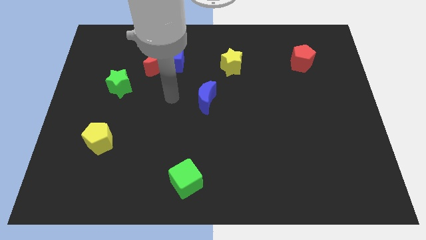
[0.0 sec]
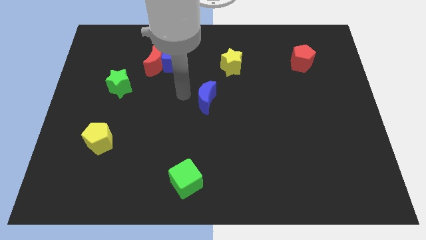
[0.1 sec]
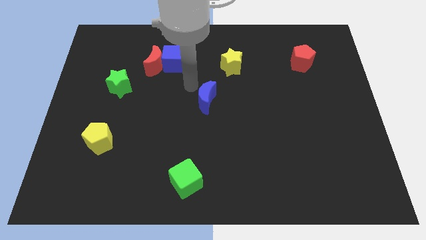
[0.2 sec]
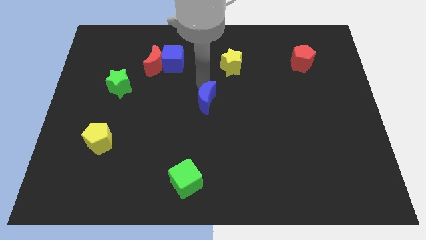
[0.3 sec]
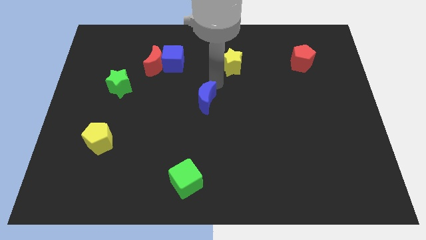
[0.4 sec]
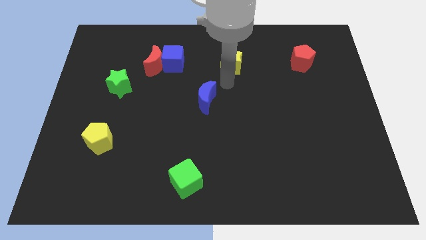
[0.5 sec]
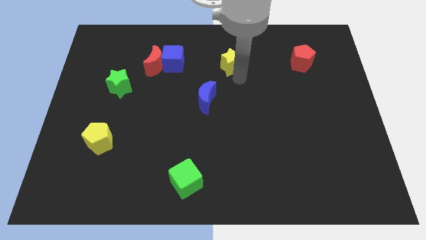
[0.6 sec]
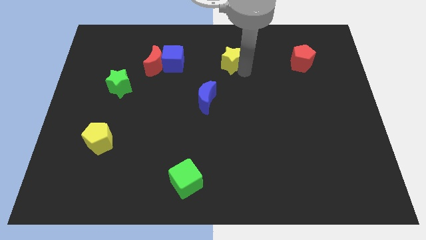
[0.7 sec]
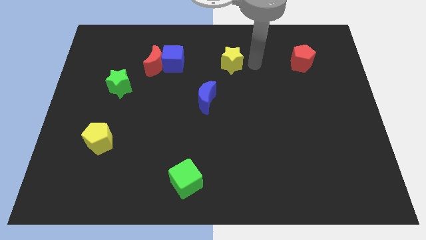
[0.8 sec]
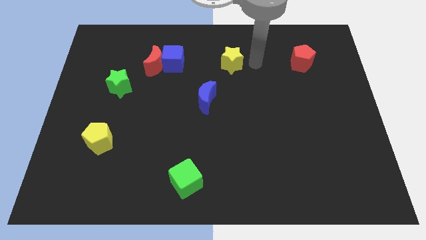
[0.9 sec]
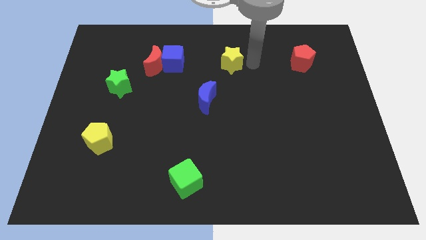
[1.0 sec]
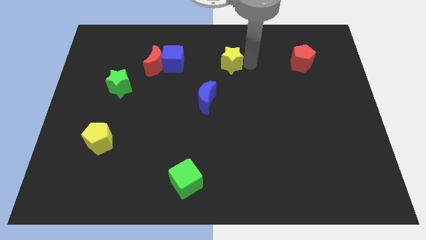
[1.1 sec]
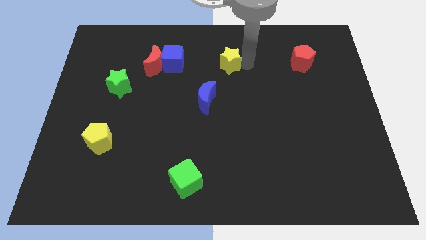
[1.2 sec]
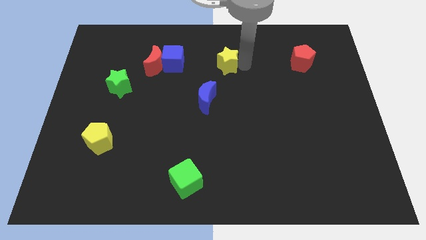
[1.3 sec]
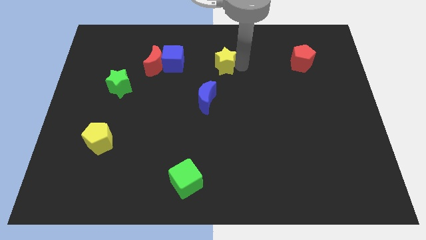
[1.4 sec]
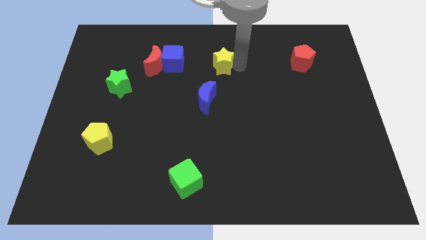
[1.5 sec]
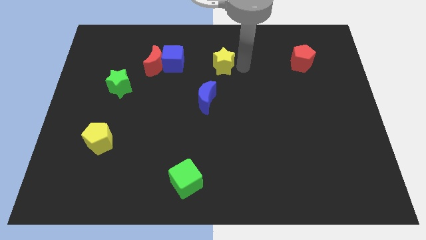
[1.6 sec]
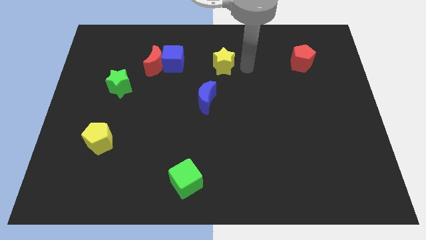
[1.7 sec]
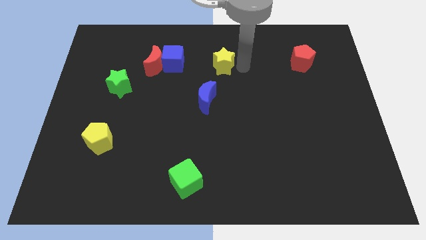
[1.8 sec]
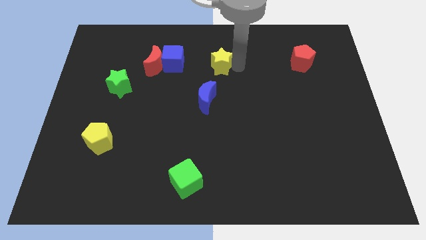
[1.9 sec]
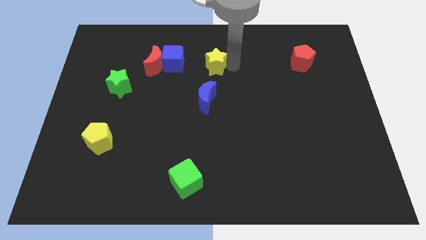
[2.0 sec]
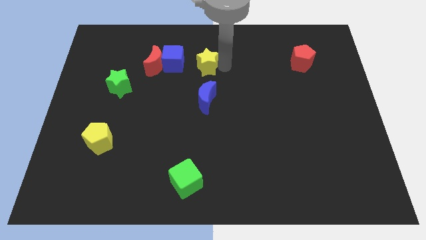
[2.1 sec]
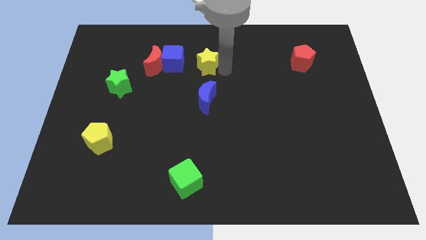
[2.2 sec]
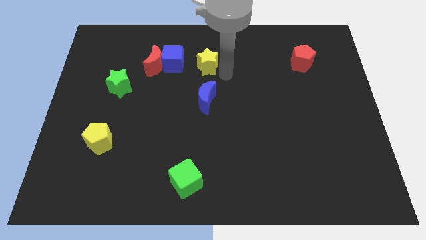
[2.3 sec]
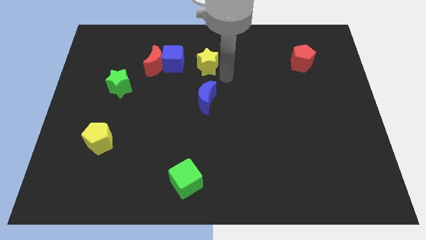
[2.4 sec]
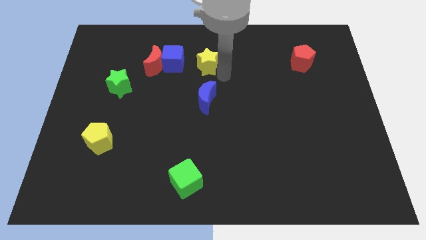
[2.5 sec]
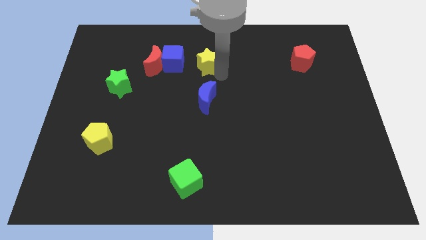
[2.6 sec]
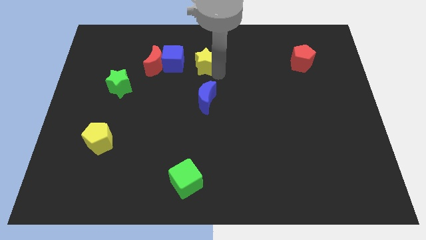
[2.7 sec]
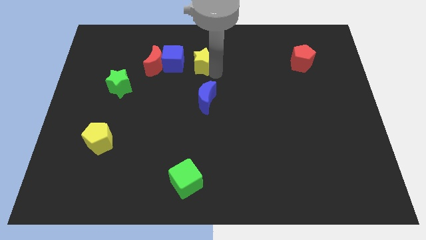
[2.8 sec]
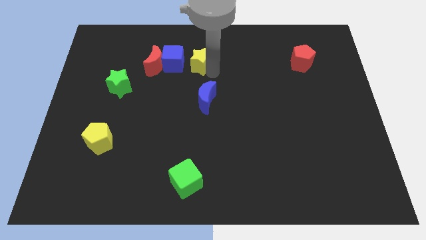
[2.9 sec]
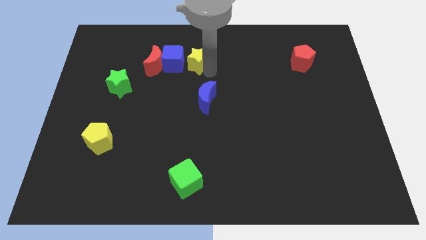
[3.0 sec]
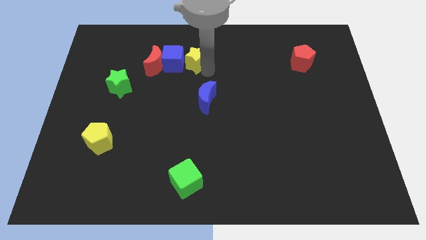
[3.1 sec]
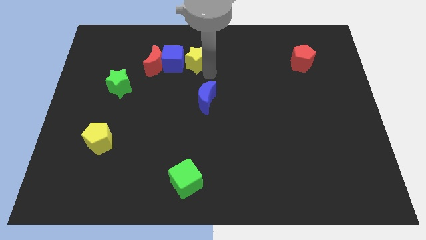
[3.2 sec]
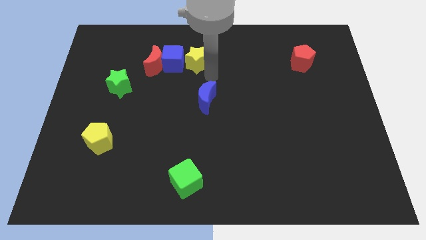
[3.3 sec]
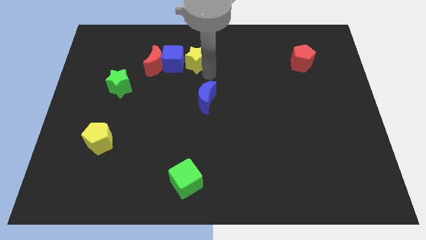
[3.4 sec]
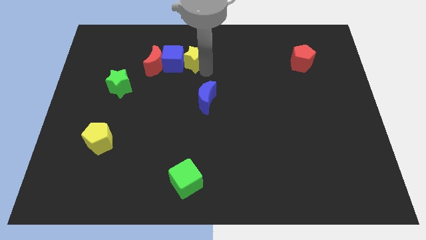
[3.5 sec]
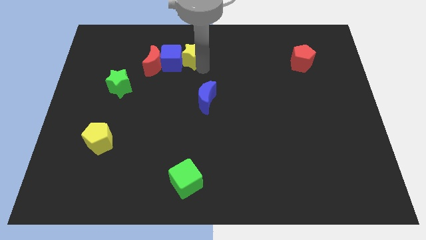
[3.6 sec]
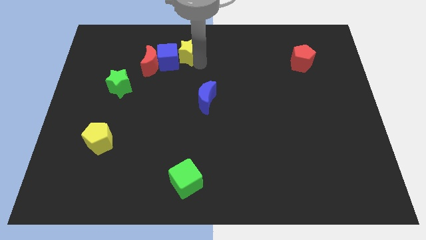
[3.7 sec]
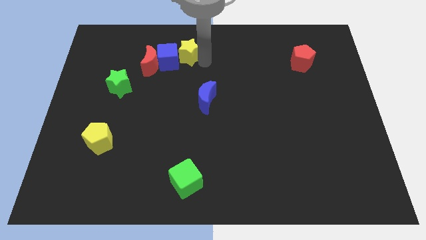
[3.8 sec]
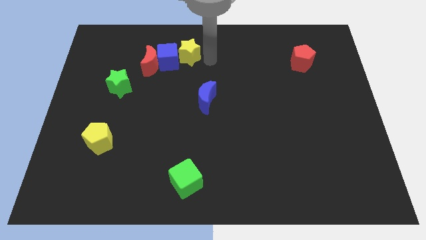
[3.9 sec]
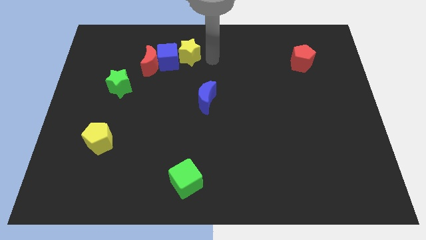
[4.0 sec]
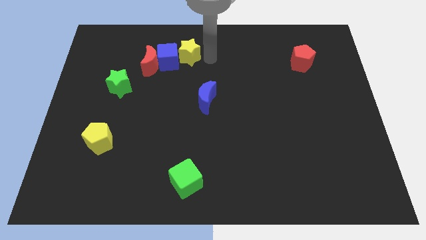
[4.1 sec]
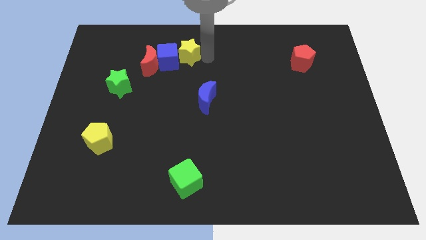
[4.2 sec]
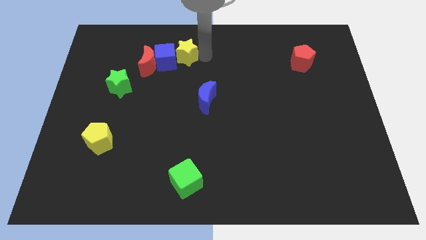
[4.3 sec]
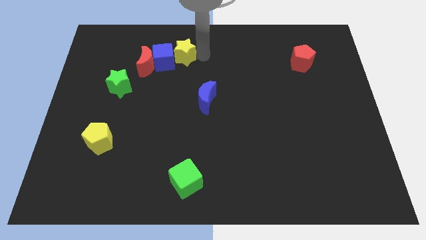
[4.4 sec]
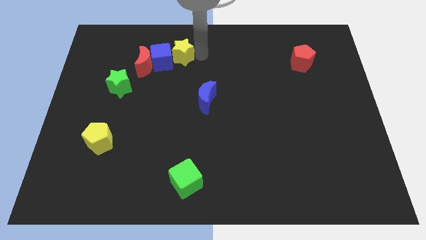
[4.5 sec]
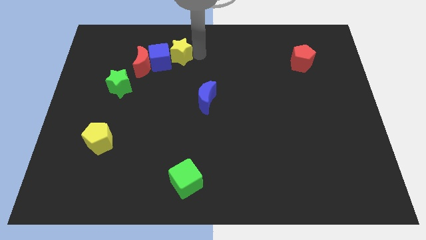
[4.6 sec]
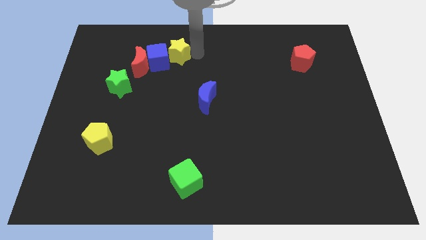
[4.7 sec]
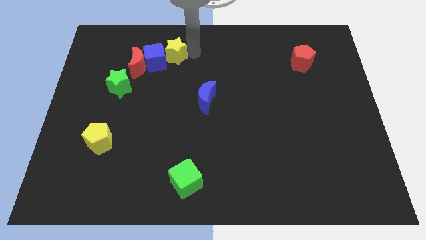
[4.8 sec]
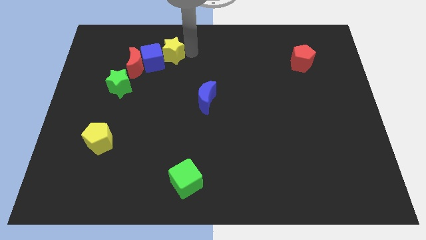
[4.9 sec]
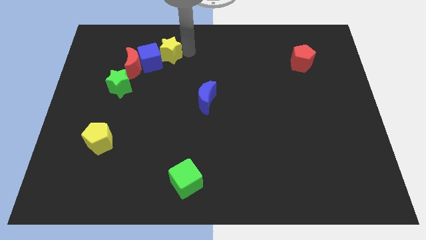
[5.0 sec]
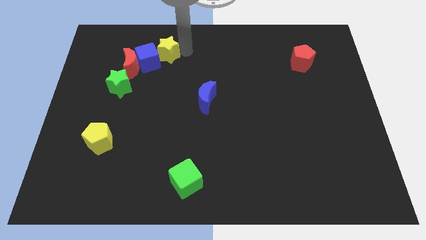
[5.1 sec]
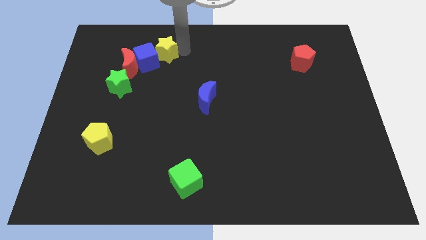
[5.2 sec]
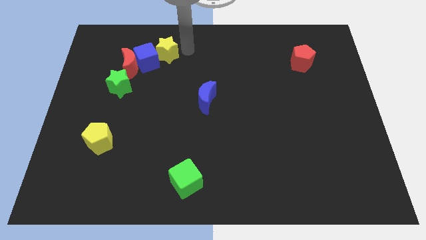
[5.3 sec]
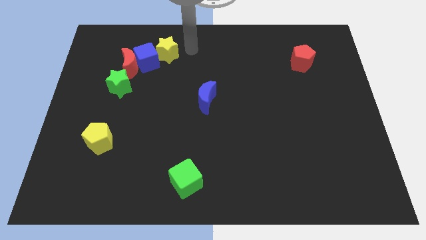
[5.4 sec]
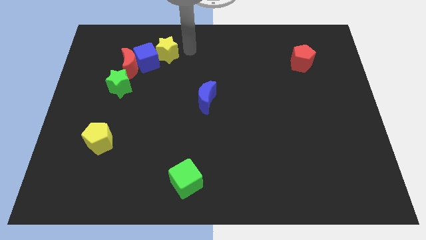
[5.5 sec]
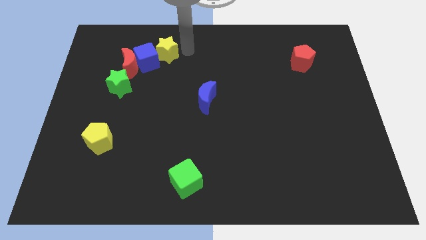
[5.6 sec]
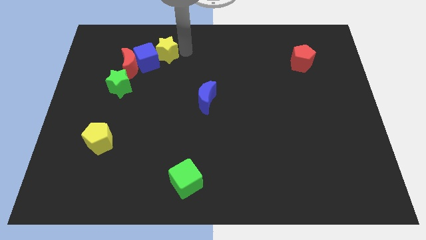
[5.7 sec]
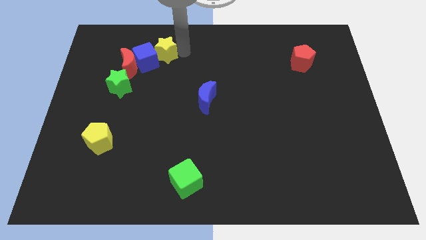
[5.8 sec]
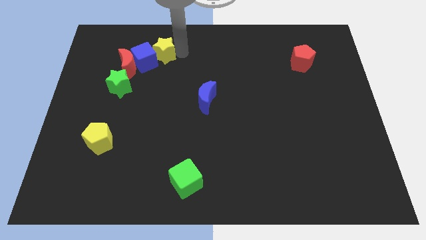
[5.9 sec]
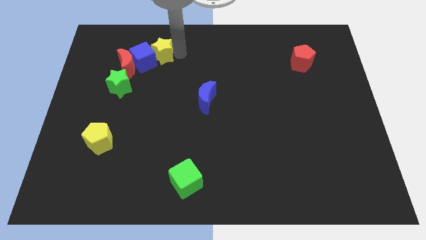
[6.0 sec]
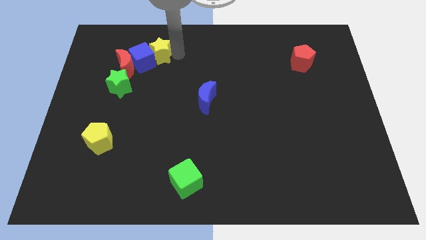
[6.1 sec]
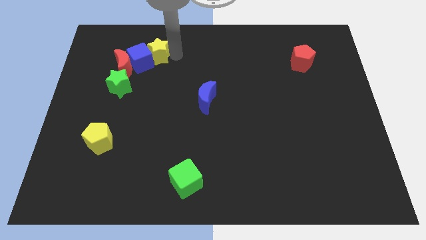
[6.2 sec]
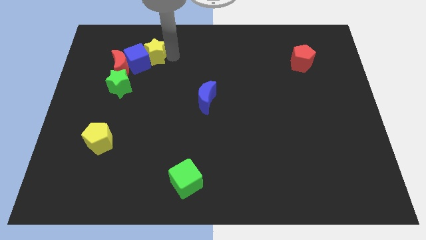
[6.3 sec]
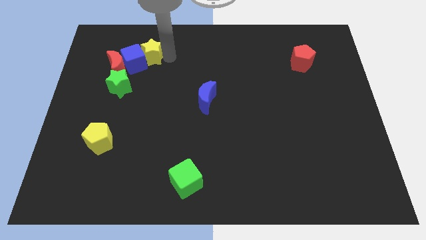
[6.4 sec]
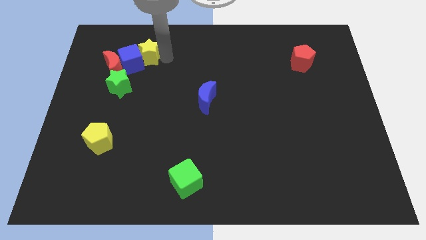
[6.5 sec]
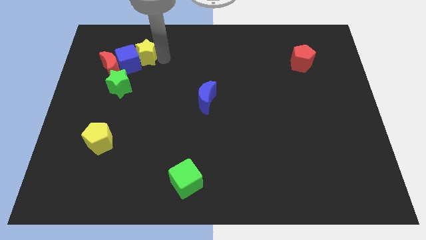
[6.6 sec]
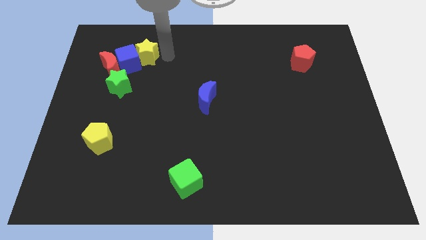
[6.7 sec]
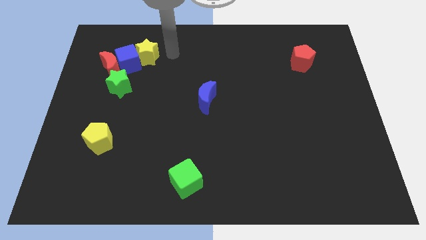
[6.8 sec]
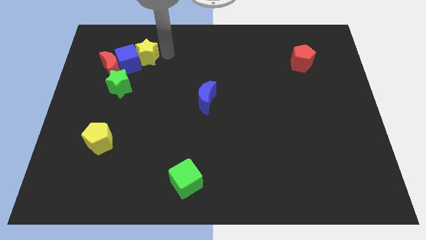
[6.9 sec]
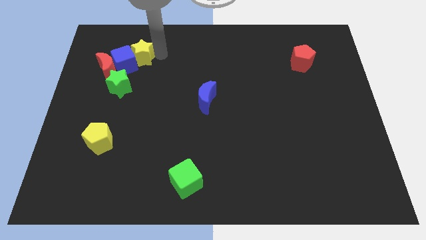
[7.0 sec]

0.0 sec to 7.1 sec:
move the yellow star above the green star

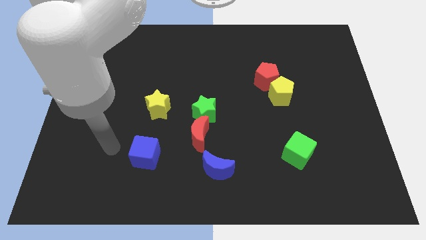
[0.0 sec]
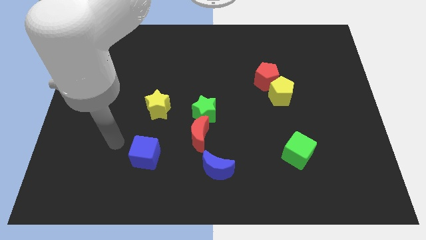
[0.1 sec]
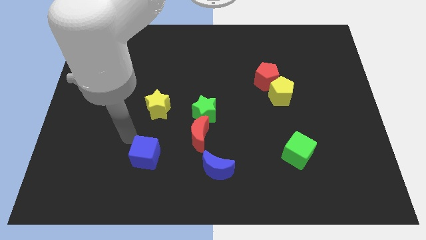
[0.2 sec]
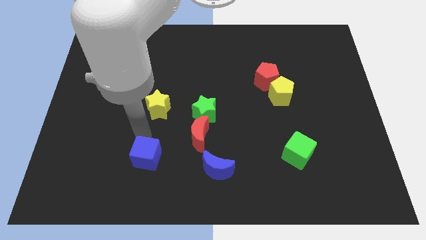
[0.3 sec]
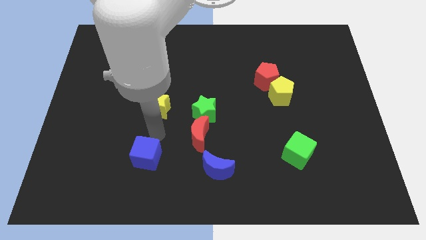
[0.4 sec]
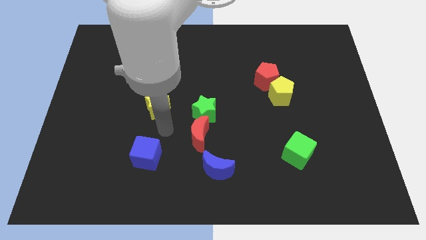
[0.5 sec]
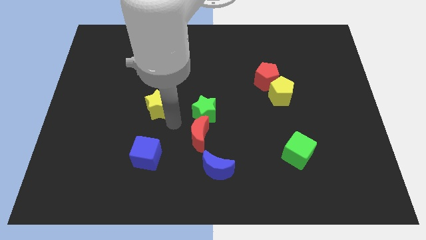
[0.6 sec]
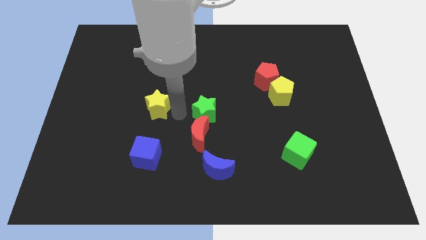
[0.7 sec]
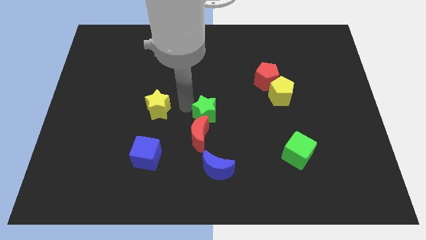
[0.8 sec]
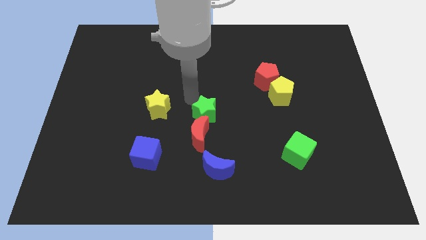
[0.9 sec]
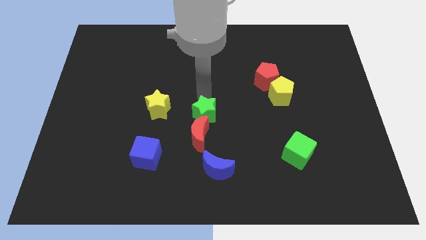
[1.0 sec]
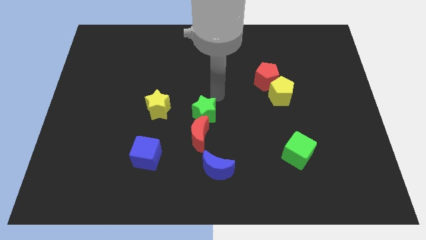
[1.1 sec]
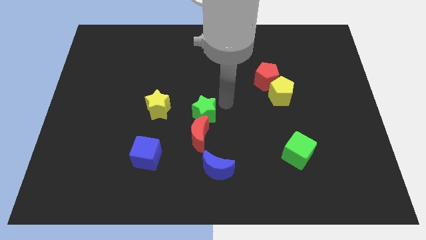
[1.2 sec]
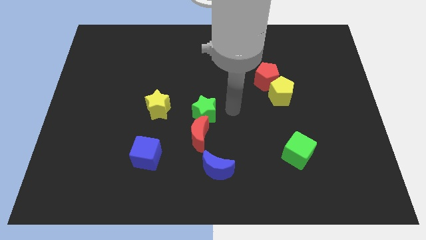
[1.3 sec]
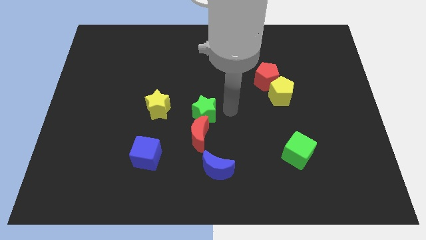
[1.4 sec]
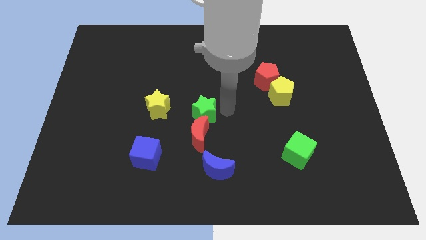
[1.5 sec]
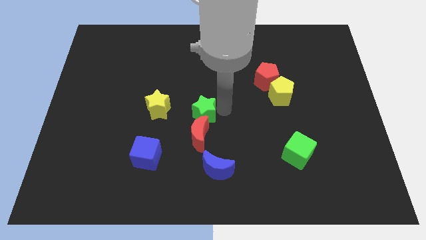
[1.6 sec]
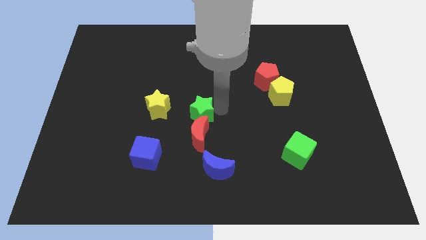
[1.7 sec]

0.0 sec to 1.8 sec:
push the green star to the top left of the red moon
